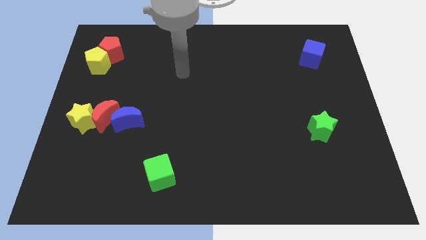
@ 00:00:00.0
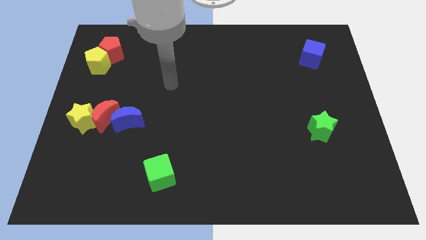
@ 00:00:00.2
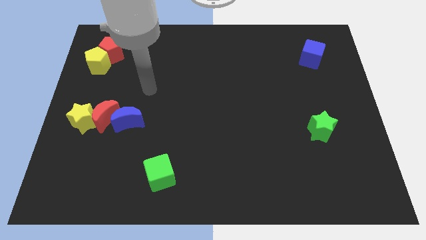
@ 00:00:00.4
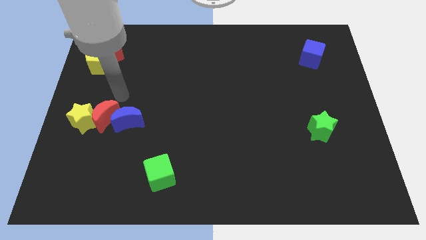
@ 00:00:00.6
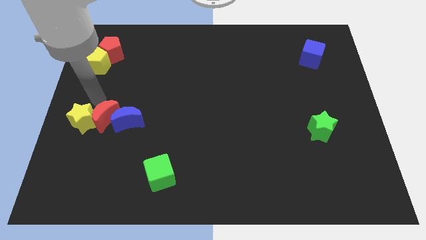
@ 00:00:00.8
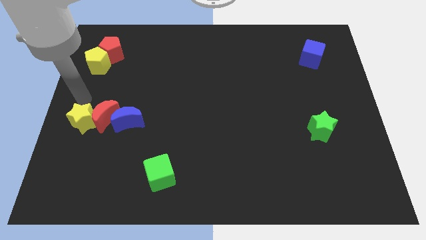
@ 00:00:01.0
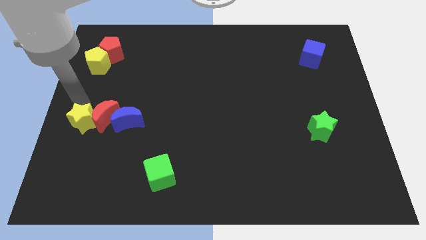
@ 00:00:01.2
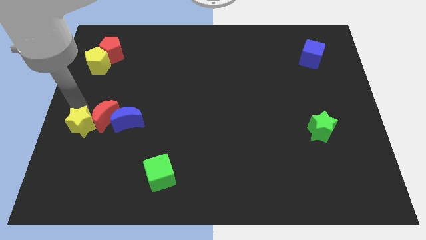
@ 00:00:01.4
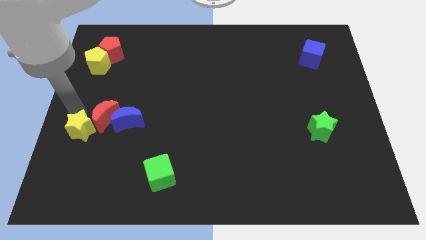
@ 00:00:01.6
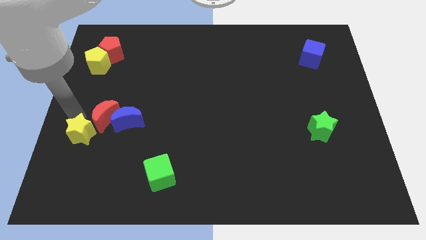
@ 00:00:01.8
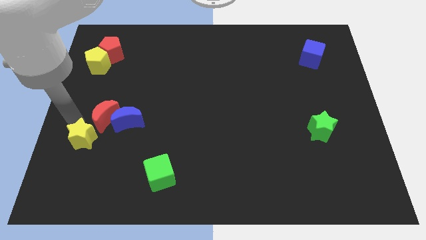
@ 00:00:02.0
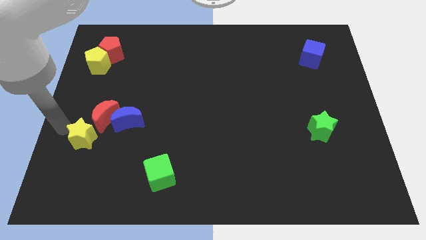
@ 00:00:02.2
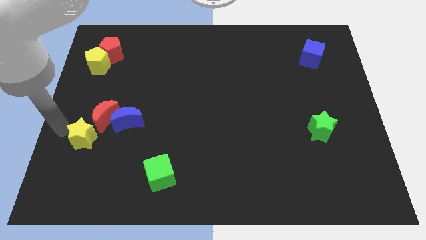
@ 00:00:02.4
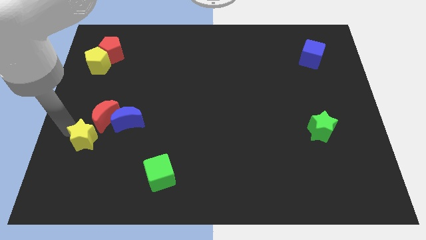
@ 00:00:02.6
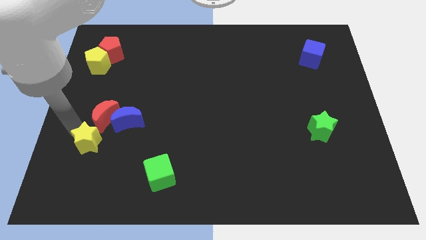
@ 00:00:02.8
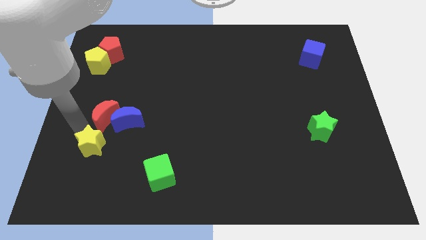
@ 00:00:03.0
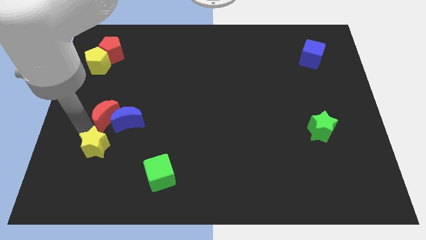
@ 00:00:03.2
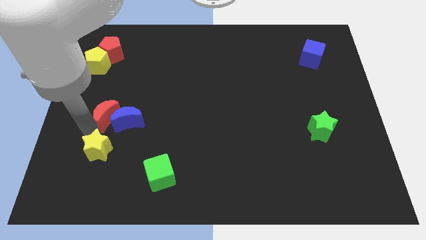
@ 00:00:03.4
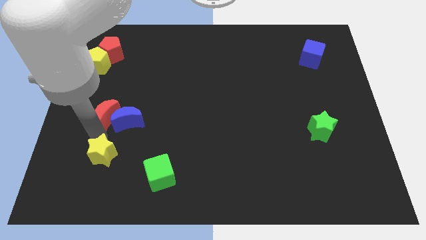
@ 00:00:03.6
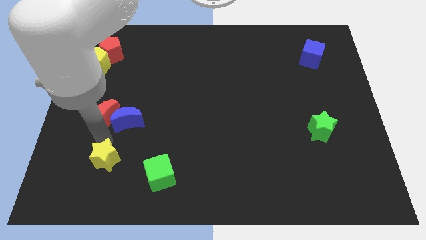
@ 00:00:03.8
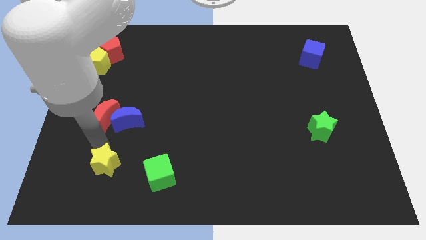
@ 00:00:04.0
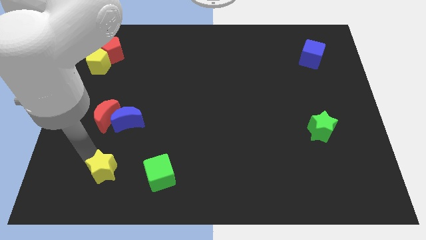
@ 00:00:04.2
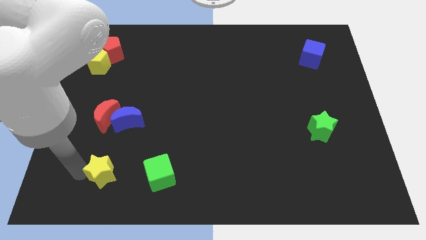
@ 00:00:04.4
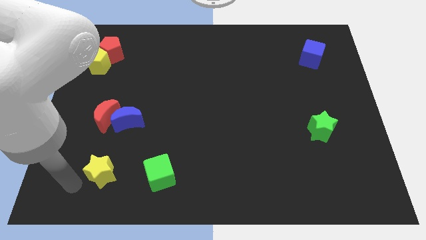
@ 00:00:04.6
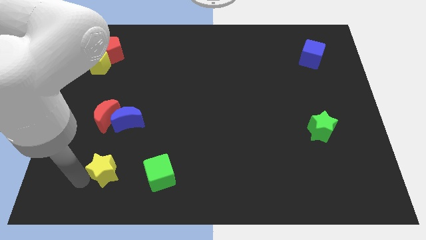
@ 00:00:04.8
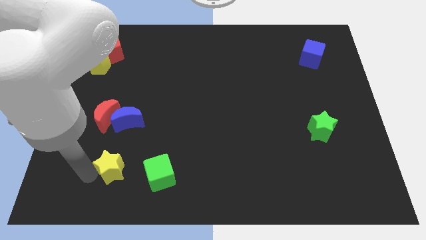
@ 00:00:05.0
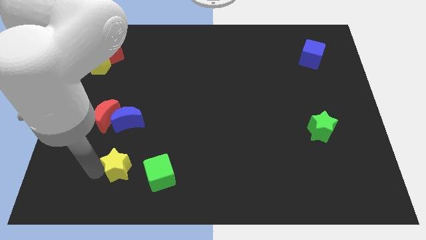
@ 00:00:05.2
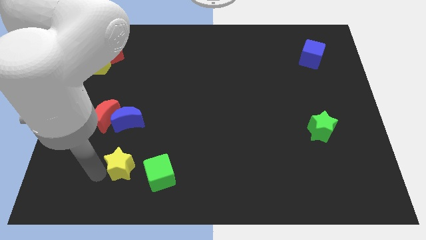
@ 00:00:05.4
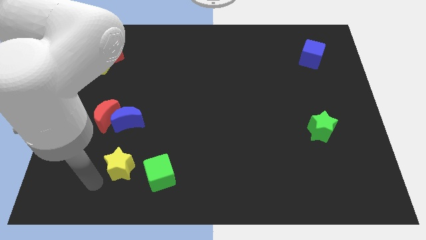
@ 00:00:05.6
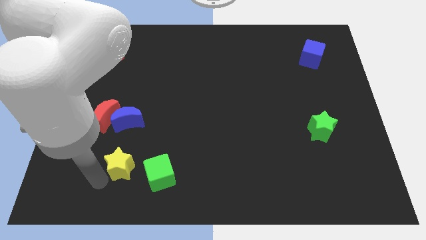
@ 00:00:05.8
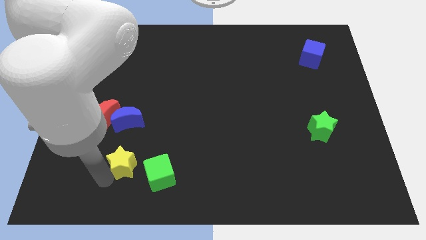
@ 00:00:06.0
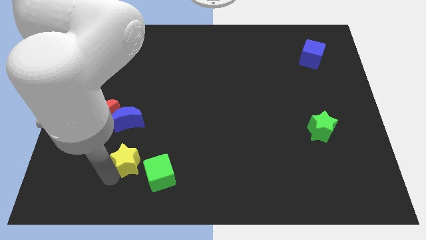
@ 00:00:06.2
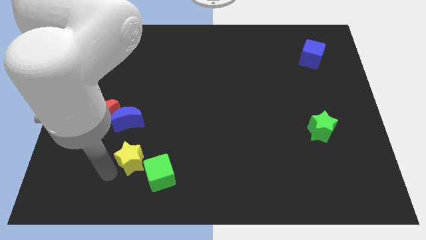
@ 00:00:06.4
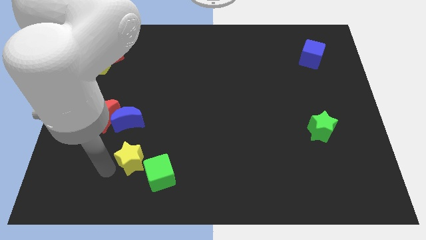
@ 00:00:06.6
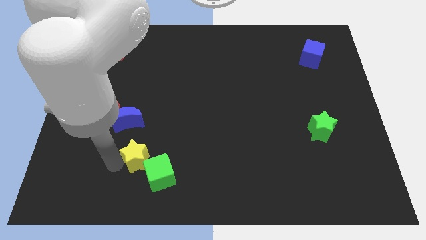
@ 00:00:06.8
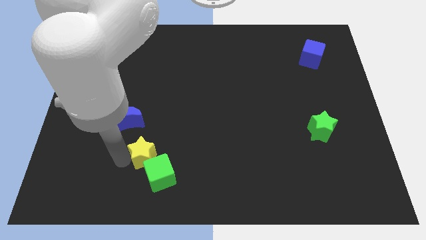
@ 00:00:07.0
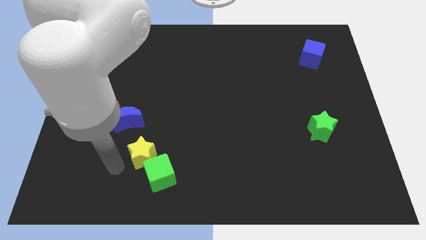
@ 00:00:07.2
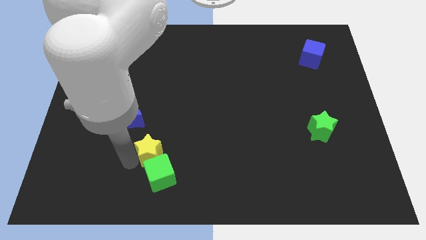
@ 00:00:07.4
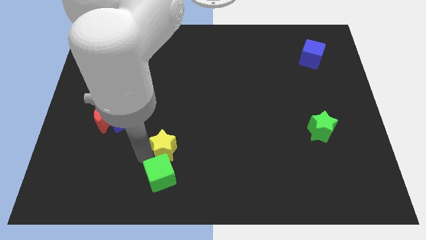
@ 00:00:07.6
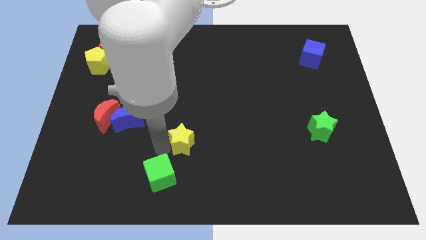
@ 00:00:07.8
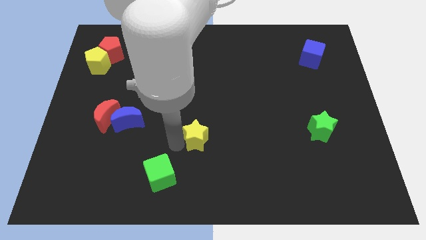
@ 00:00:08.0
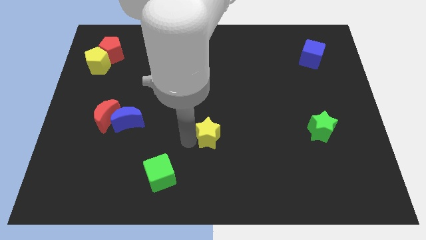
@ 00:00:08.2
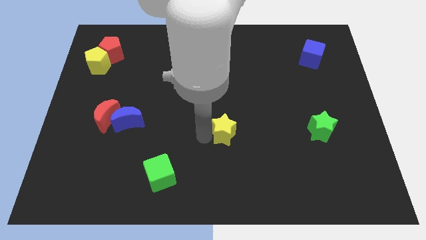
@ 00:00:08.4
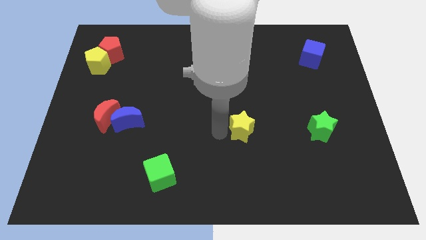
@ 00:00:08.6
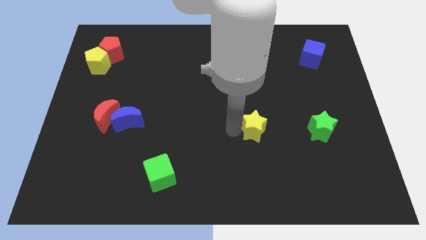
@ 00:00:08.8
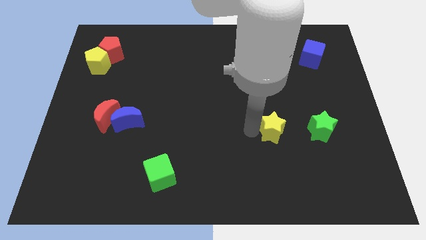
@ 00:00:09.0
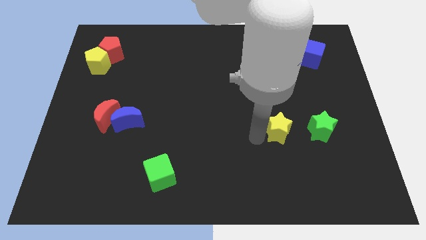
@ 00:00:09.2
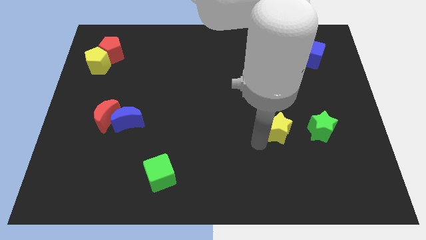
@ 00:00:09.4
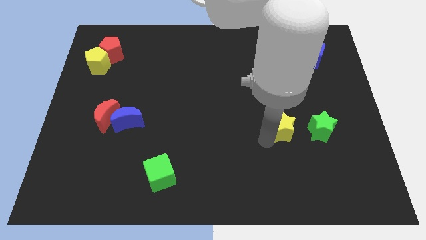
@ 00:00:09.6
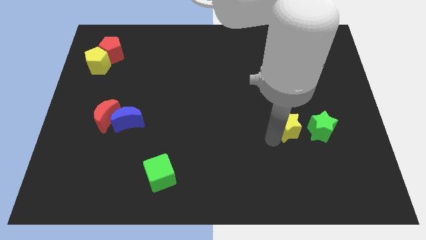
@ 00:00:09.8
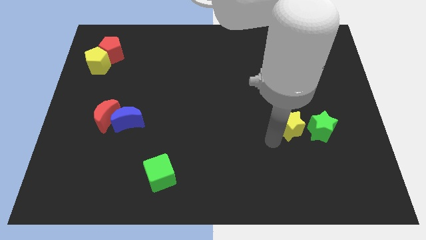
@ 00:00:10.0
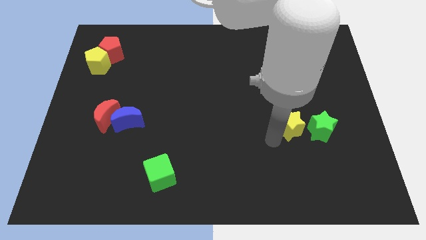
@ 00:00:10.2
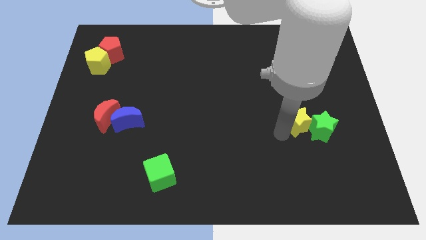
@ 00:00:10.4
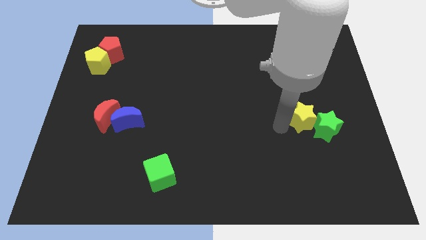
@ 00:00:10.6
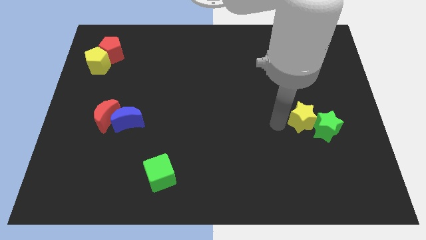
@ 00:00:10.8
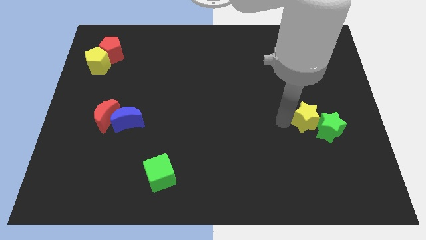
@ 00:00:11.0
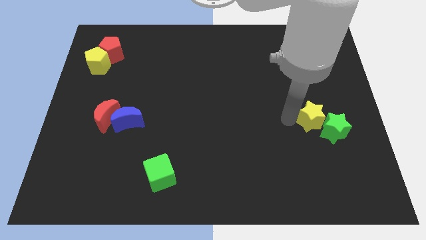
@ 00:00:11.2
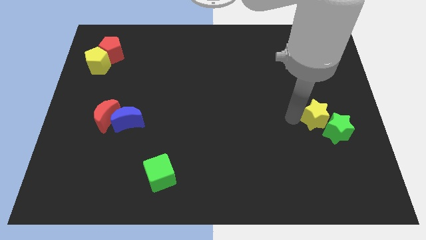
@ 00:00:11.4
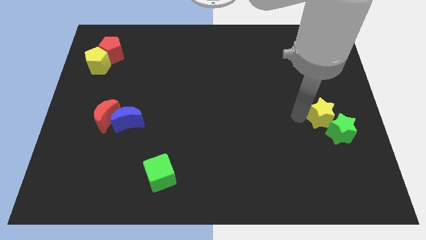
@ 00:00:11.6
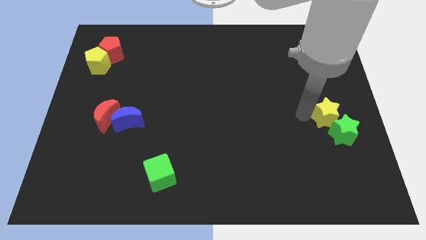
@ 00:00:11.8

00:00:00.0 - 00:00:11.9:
put the yellow star to the right side

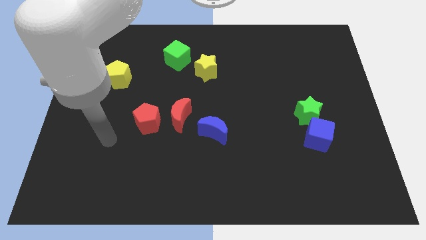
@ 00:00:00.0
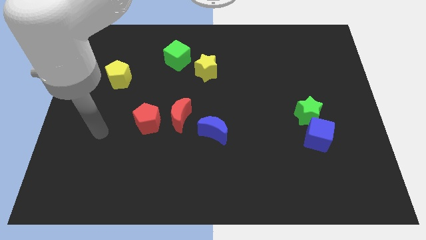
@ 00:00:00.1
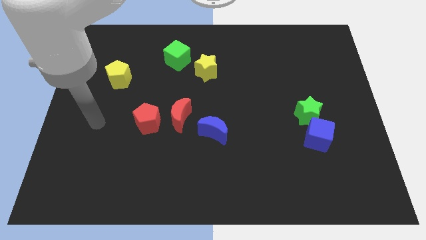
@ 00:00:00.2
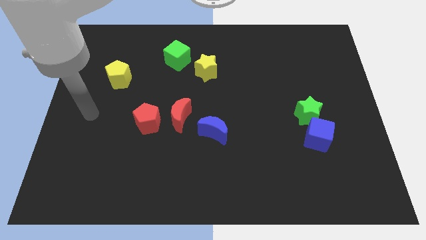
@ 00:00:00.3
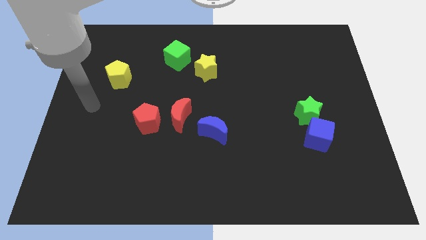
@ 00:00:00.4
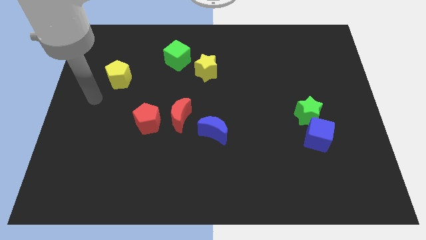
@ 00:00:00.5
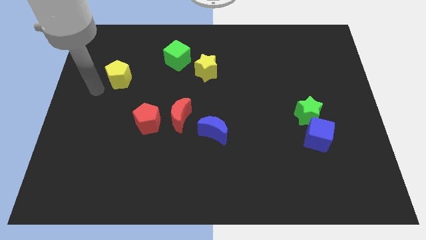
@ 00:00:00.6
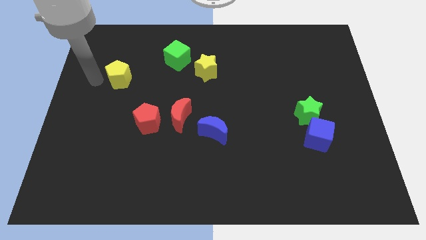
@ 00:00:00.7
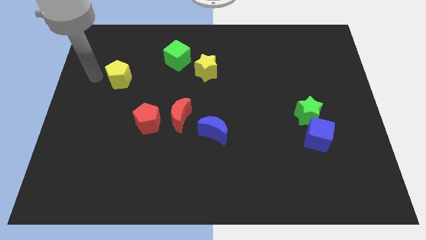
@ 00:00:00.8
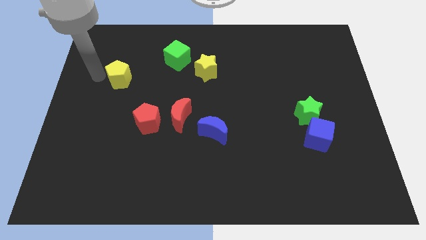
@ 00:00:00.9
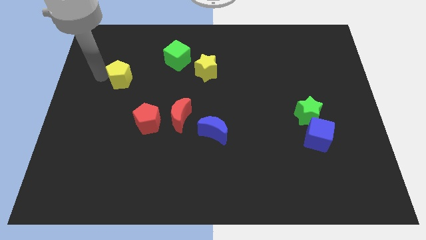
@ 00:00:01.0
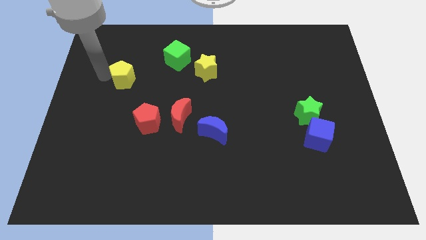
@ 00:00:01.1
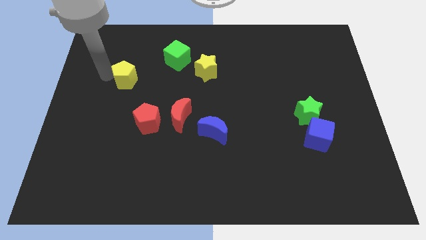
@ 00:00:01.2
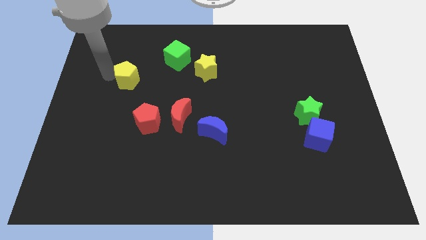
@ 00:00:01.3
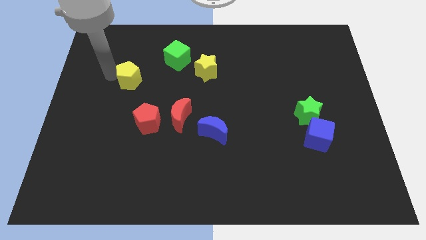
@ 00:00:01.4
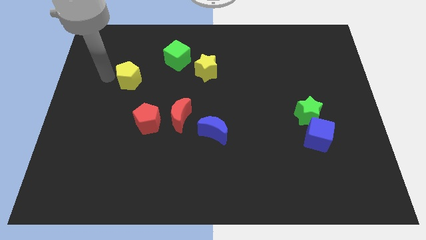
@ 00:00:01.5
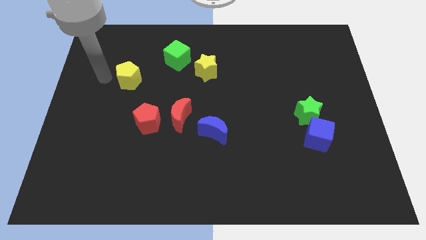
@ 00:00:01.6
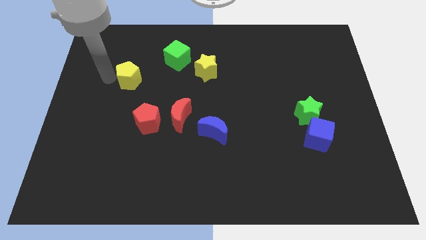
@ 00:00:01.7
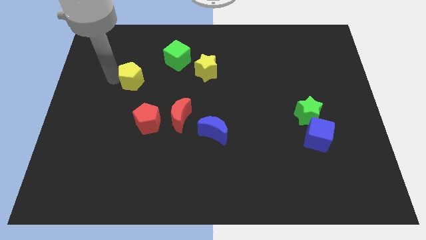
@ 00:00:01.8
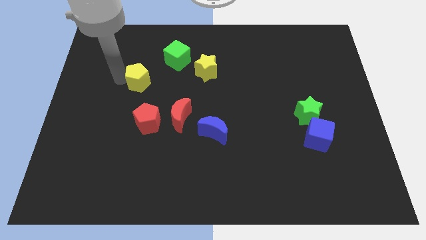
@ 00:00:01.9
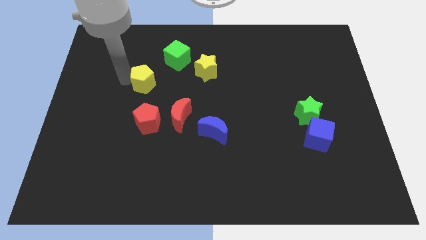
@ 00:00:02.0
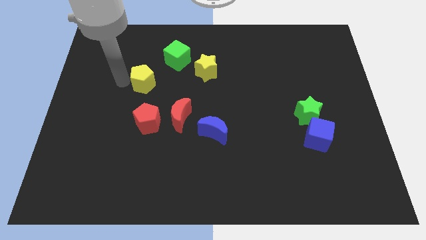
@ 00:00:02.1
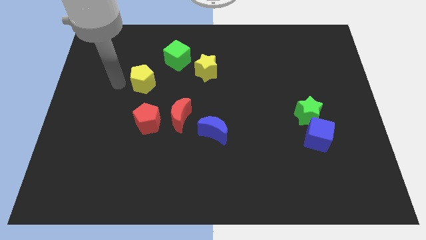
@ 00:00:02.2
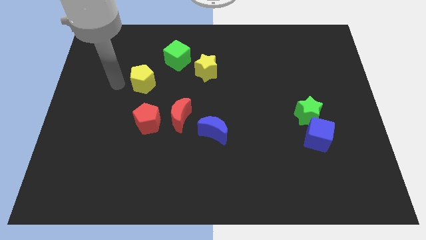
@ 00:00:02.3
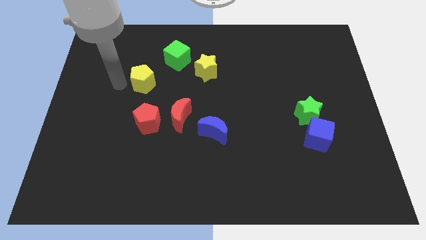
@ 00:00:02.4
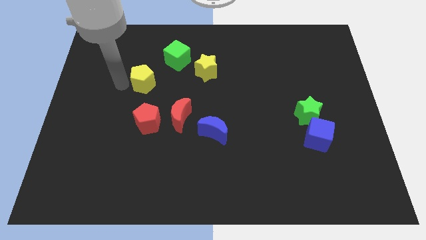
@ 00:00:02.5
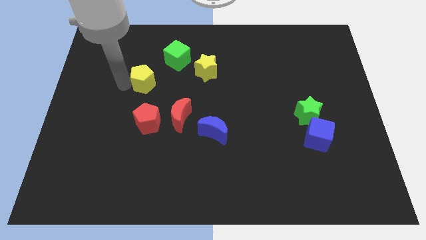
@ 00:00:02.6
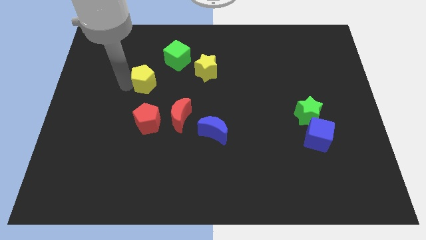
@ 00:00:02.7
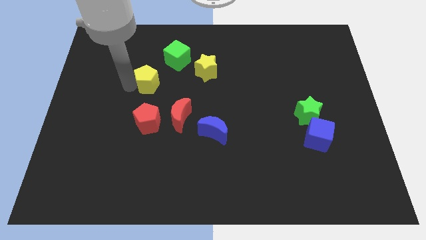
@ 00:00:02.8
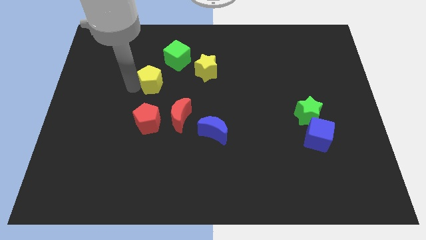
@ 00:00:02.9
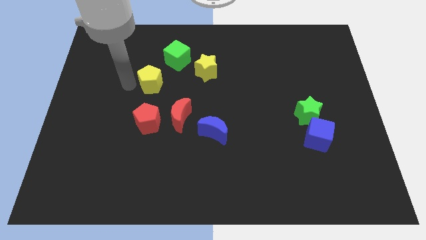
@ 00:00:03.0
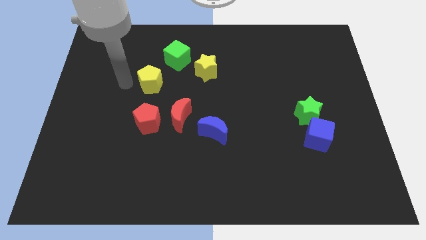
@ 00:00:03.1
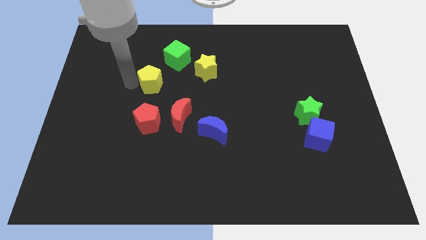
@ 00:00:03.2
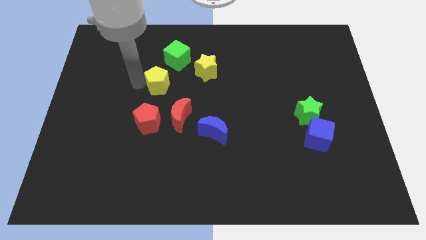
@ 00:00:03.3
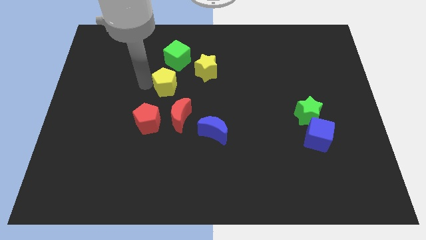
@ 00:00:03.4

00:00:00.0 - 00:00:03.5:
push the yellow pentagon to the middle of the board
